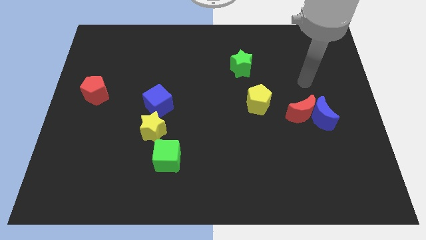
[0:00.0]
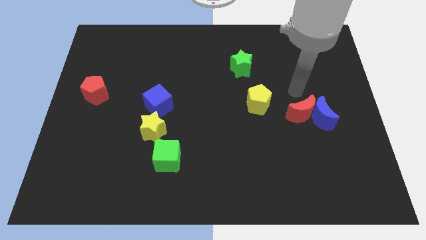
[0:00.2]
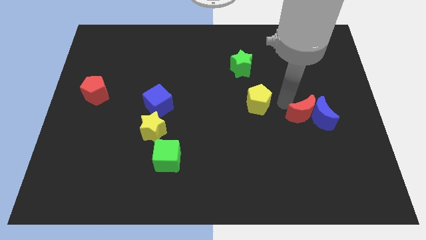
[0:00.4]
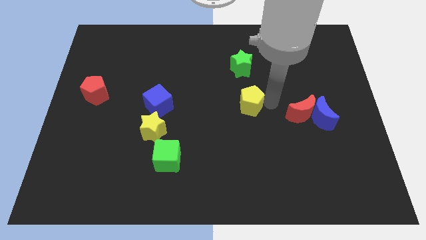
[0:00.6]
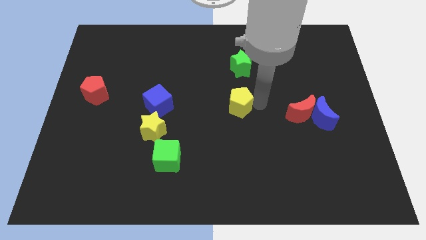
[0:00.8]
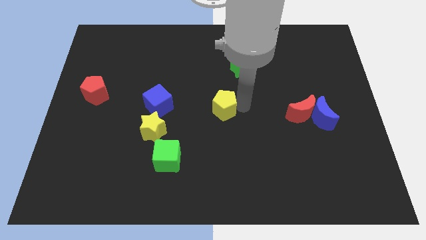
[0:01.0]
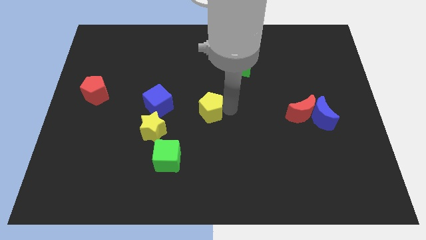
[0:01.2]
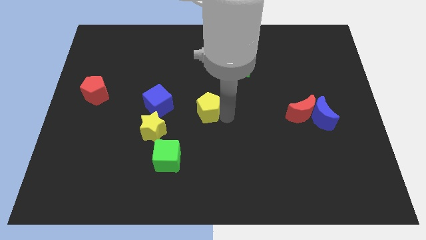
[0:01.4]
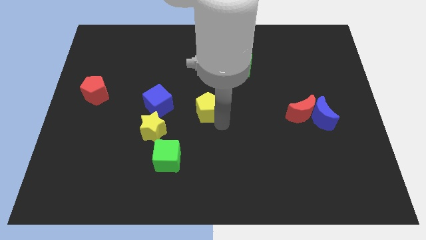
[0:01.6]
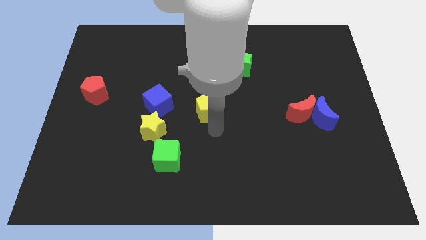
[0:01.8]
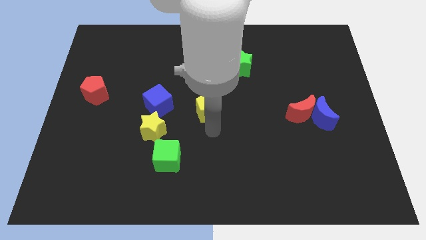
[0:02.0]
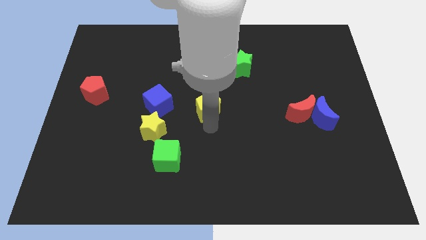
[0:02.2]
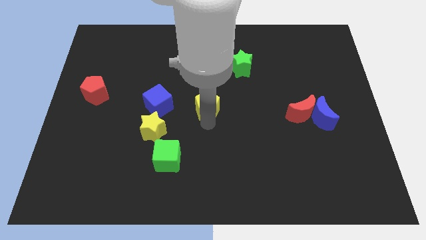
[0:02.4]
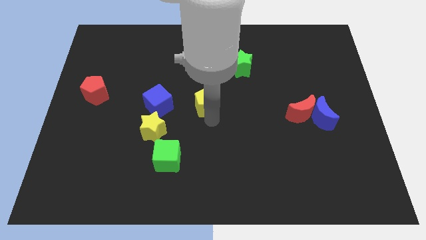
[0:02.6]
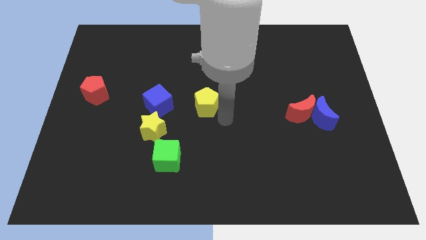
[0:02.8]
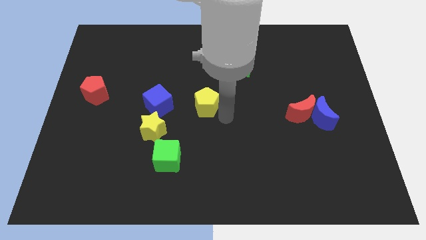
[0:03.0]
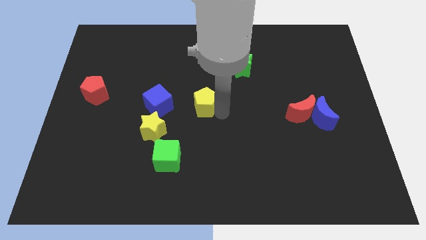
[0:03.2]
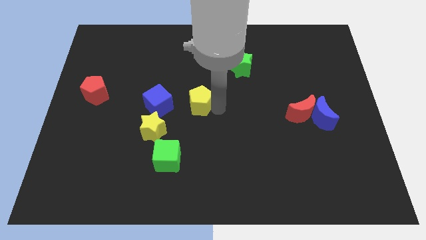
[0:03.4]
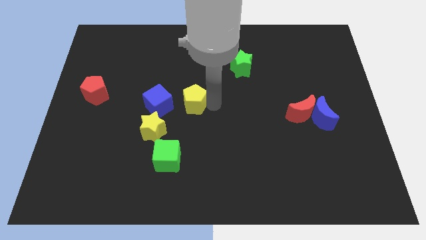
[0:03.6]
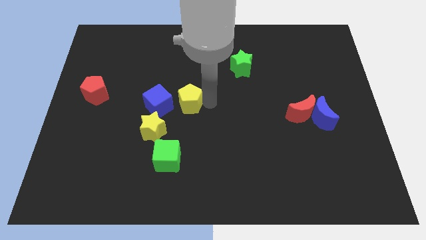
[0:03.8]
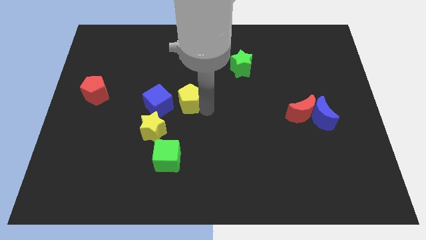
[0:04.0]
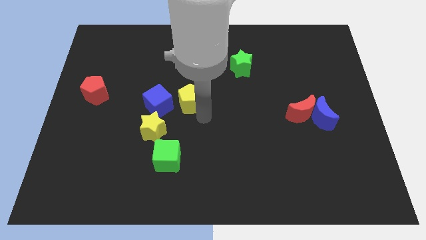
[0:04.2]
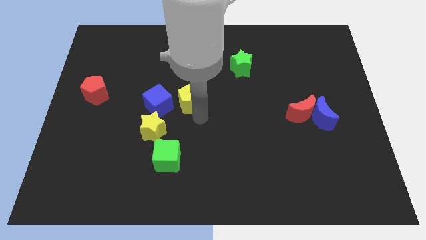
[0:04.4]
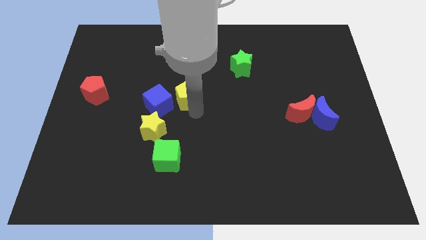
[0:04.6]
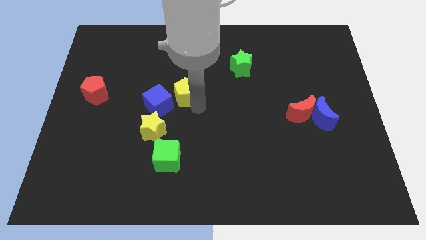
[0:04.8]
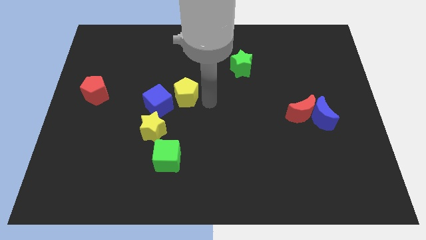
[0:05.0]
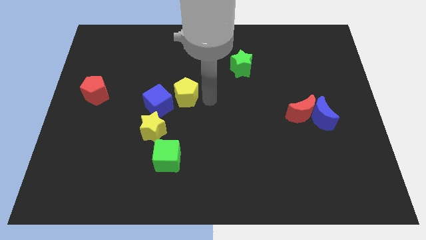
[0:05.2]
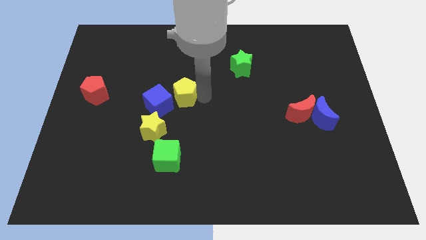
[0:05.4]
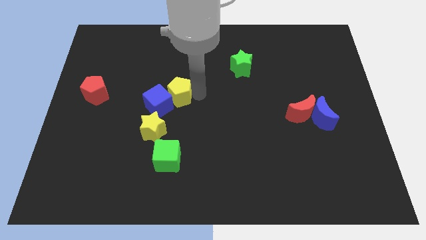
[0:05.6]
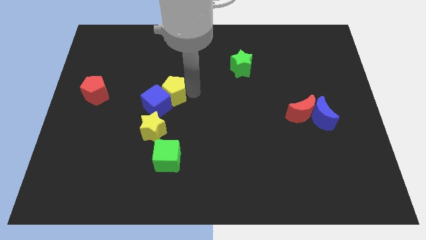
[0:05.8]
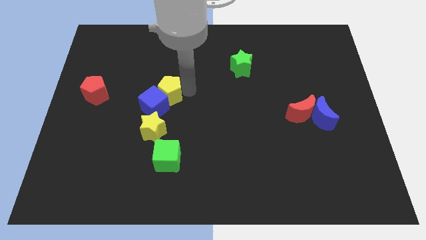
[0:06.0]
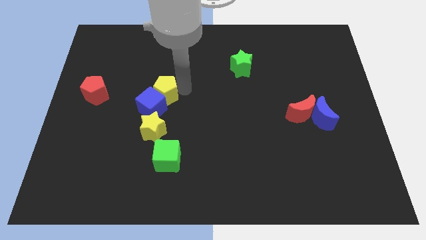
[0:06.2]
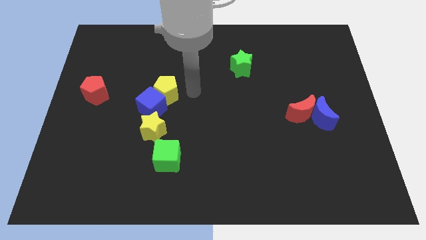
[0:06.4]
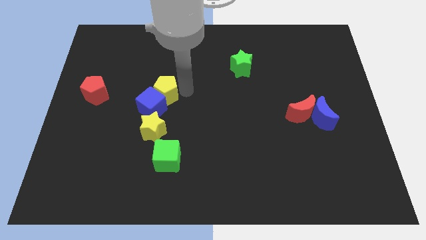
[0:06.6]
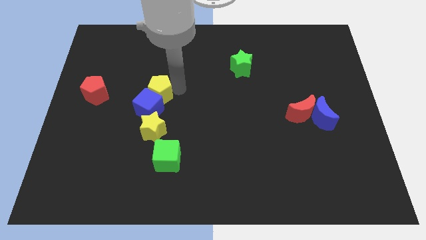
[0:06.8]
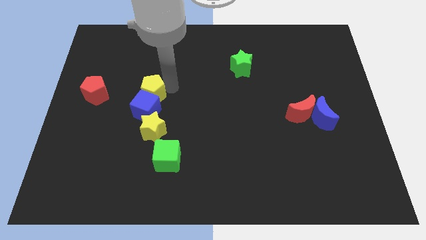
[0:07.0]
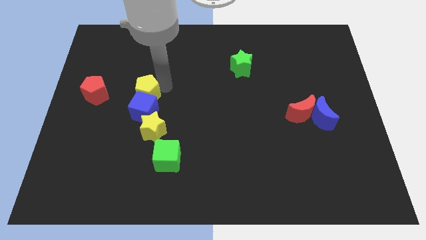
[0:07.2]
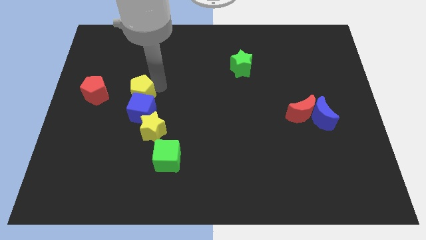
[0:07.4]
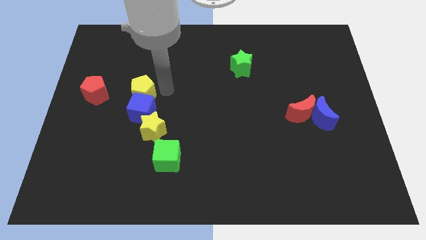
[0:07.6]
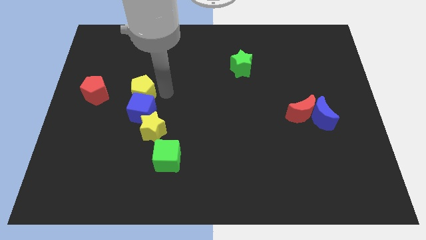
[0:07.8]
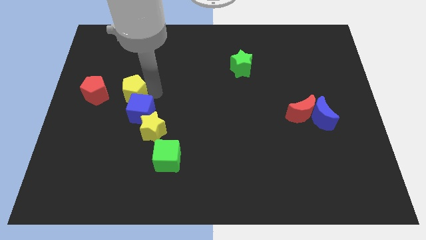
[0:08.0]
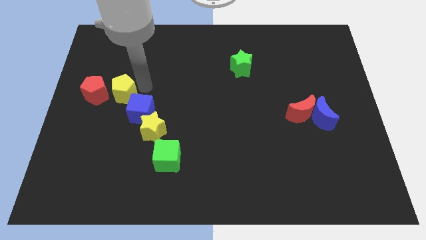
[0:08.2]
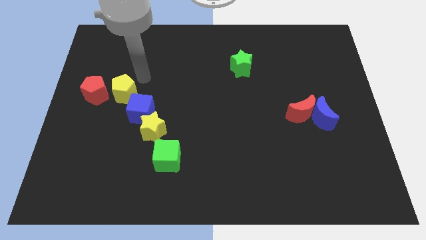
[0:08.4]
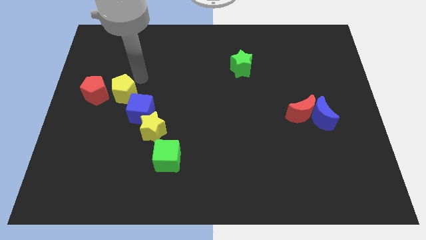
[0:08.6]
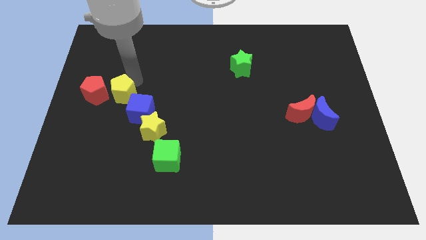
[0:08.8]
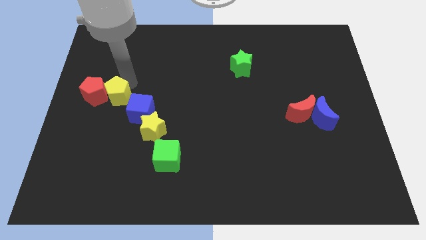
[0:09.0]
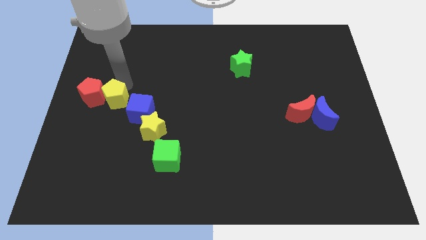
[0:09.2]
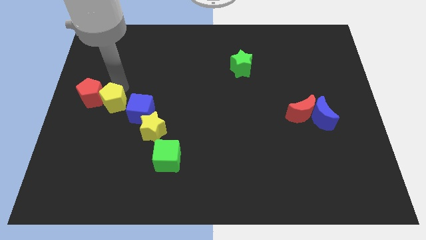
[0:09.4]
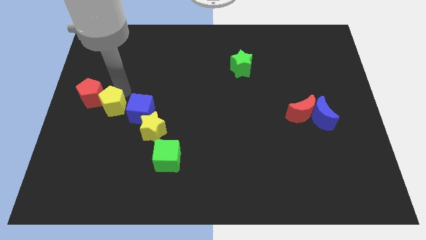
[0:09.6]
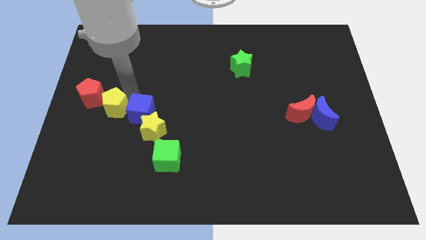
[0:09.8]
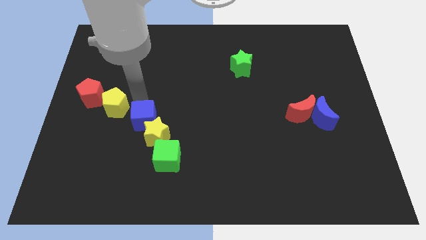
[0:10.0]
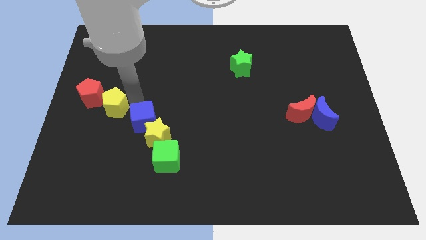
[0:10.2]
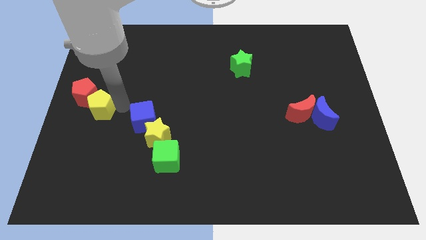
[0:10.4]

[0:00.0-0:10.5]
move the yellow pentagon to the left side
